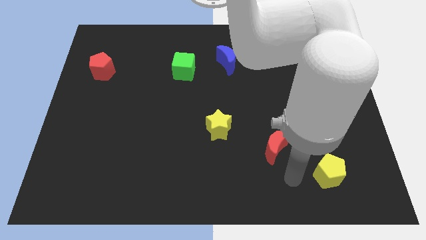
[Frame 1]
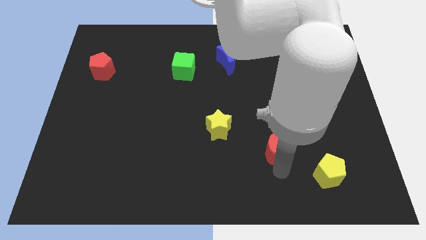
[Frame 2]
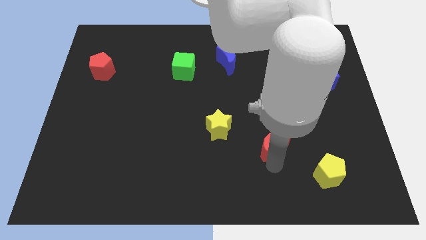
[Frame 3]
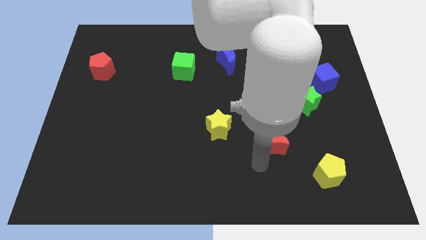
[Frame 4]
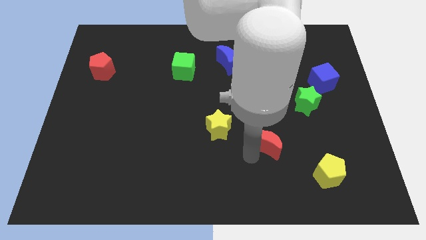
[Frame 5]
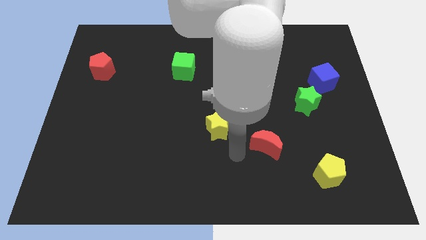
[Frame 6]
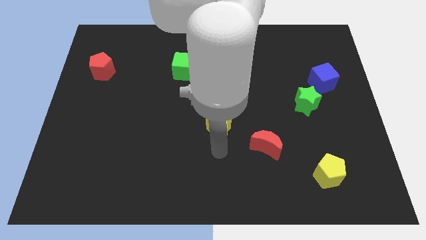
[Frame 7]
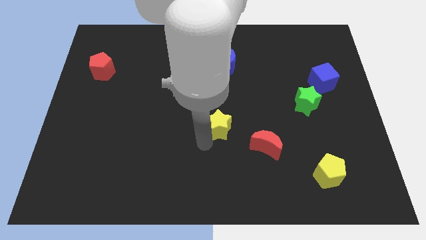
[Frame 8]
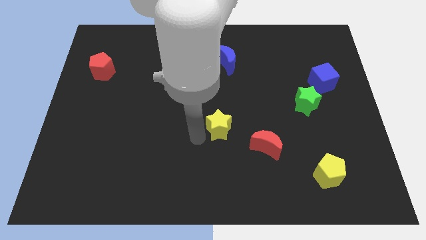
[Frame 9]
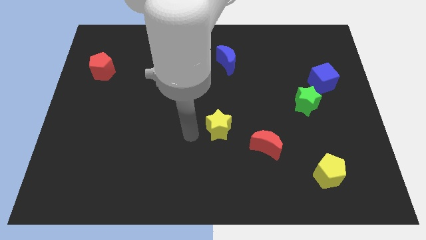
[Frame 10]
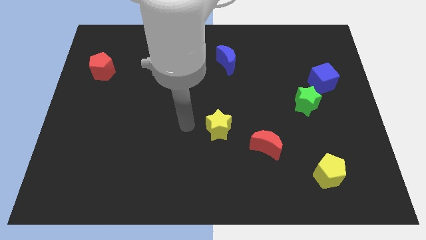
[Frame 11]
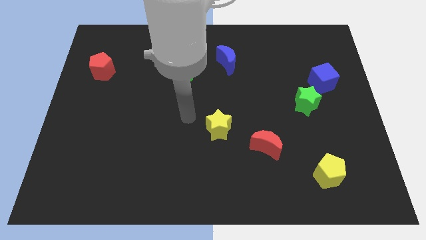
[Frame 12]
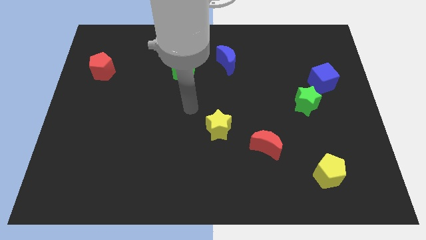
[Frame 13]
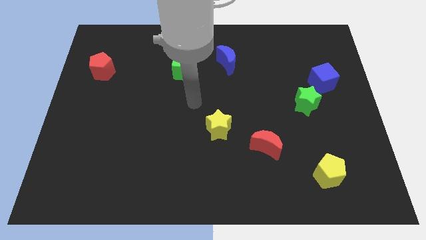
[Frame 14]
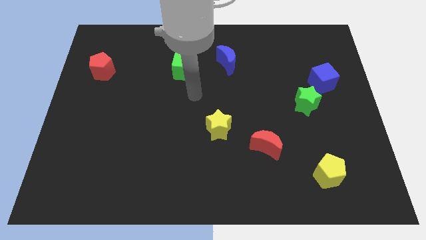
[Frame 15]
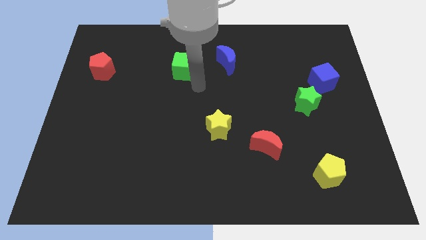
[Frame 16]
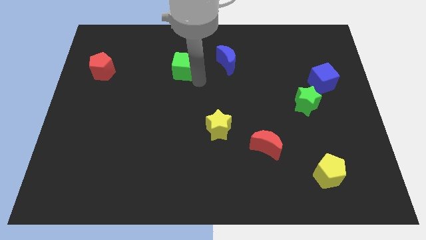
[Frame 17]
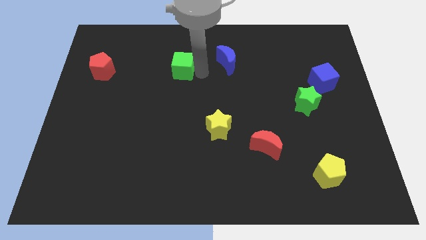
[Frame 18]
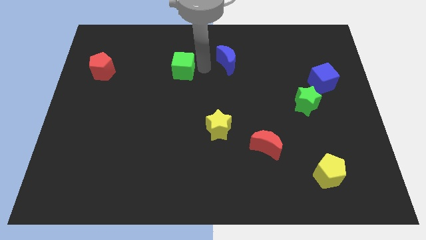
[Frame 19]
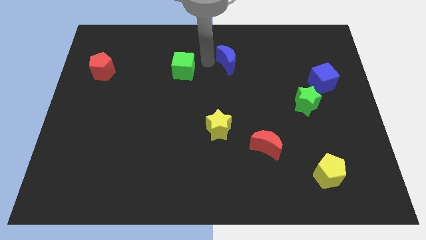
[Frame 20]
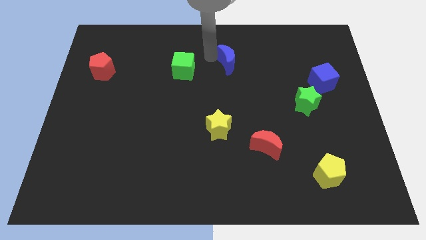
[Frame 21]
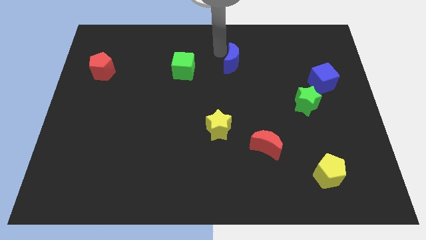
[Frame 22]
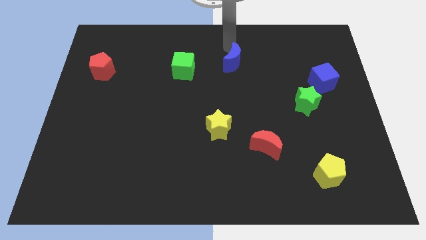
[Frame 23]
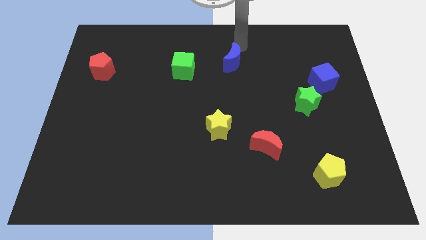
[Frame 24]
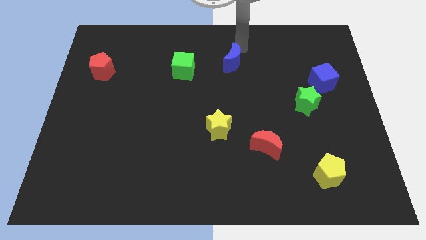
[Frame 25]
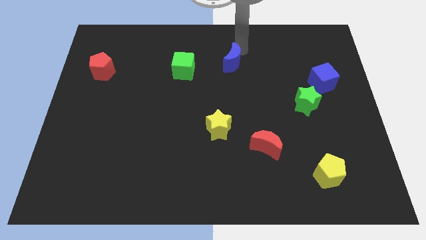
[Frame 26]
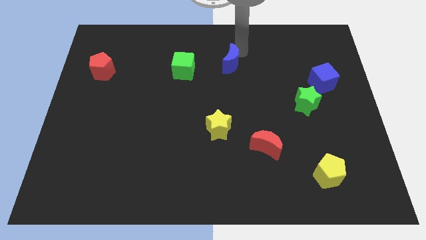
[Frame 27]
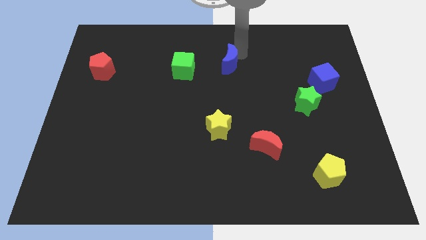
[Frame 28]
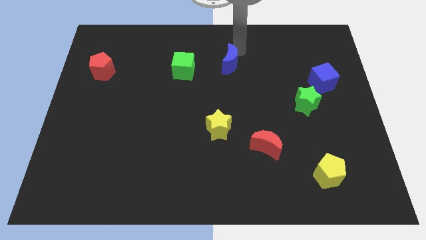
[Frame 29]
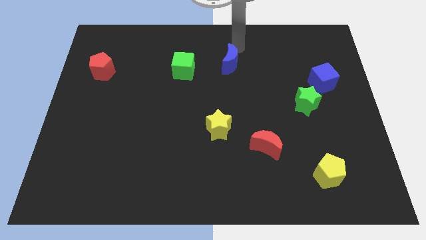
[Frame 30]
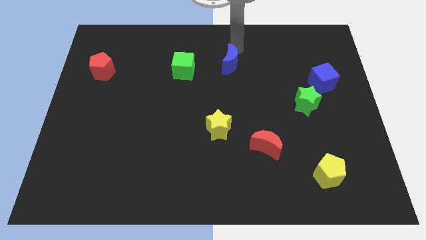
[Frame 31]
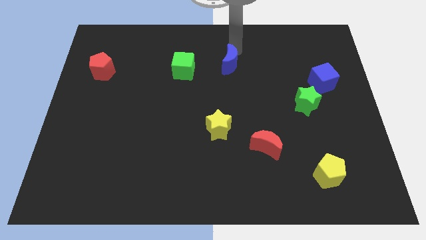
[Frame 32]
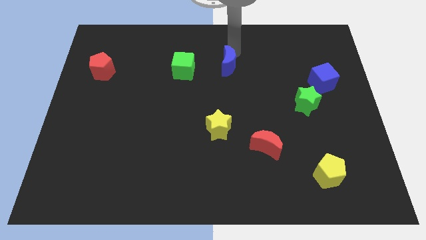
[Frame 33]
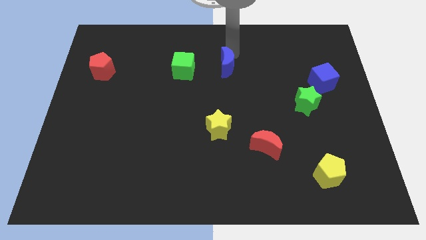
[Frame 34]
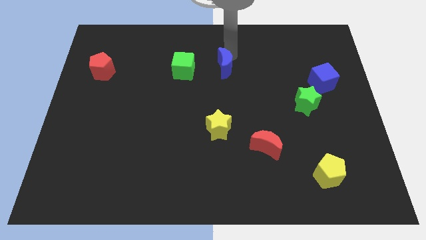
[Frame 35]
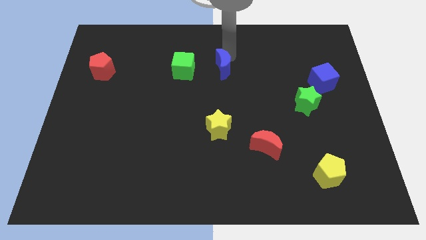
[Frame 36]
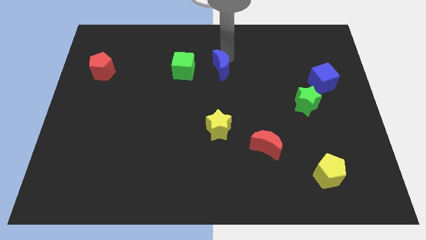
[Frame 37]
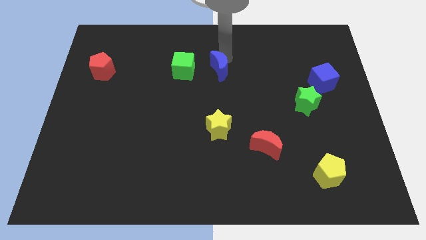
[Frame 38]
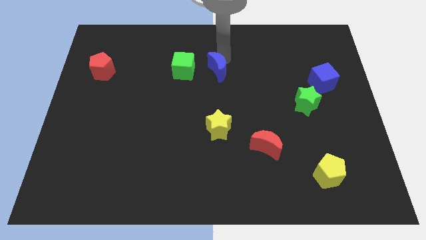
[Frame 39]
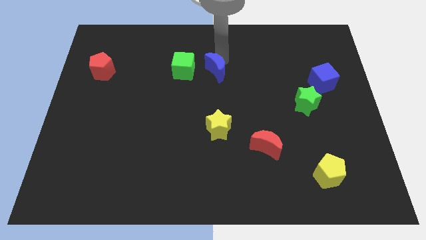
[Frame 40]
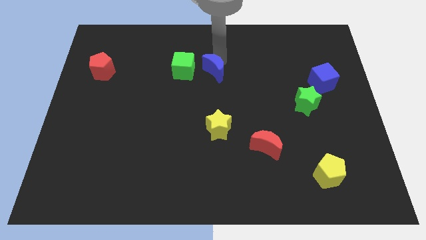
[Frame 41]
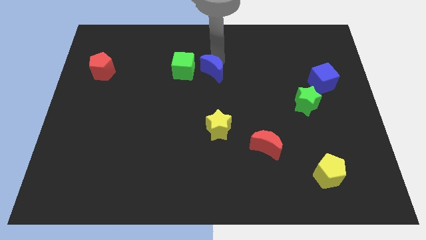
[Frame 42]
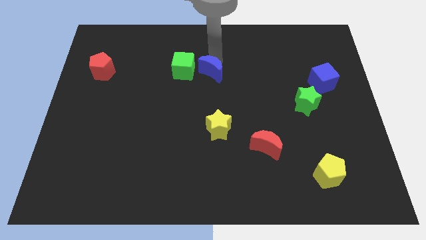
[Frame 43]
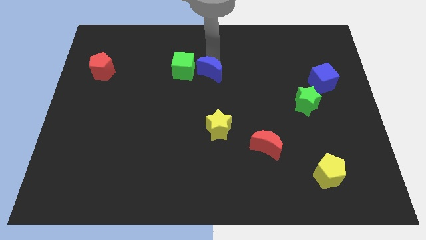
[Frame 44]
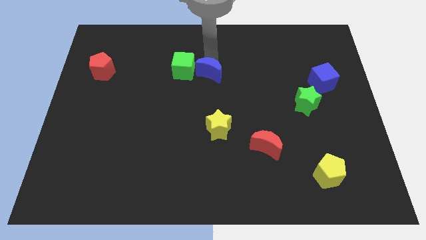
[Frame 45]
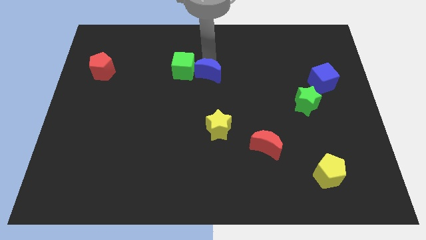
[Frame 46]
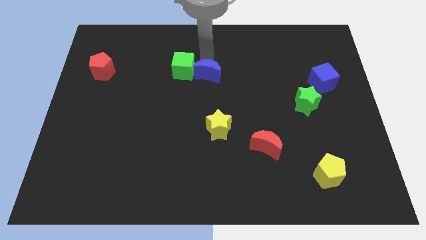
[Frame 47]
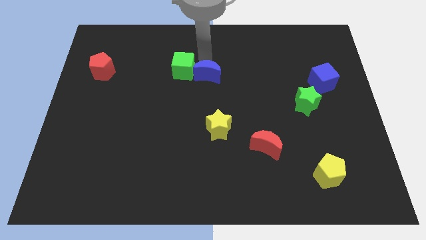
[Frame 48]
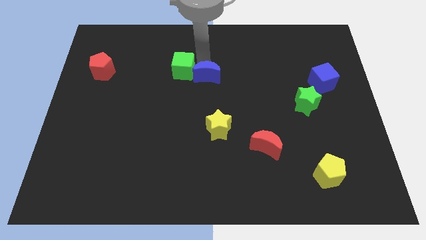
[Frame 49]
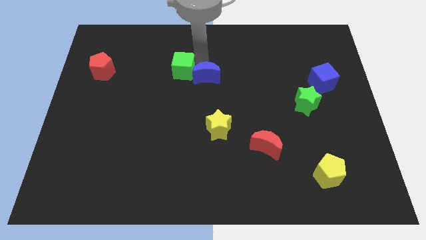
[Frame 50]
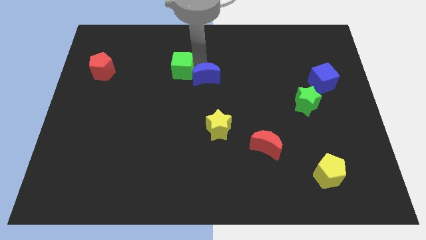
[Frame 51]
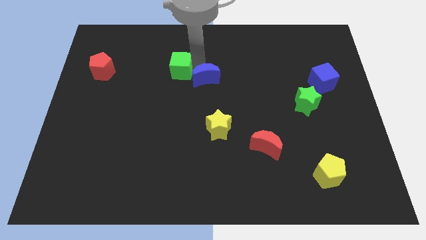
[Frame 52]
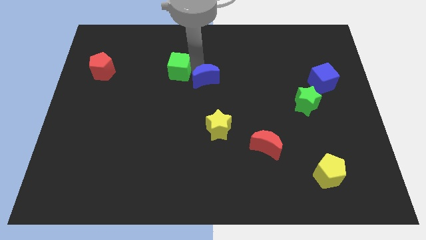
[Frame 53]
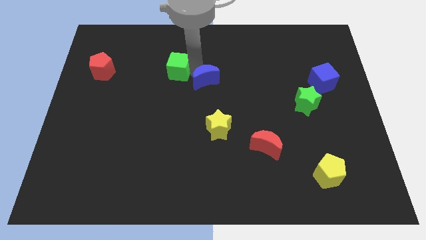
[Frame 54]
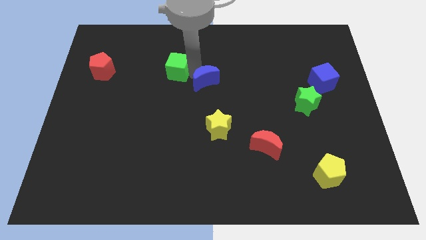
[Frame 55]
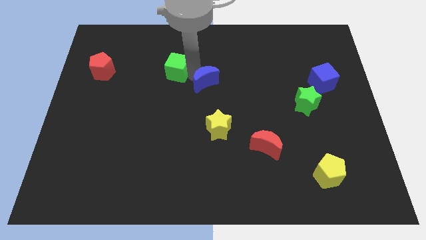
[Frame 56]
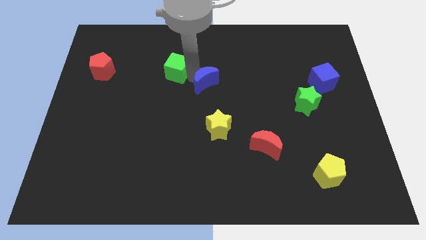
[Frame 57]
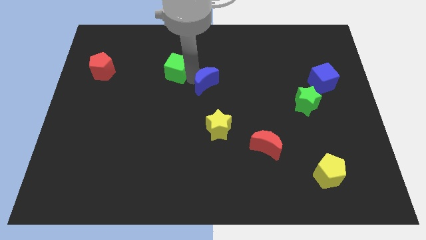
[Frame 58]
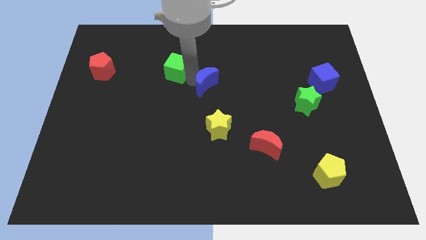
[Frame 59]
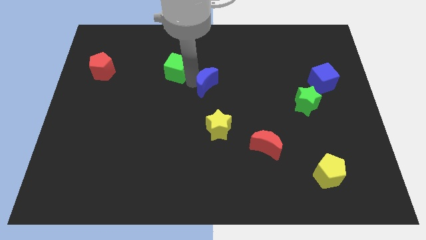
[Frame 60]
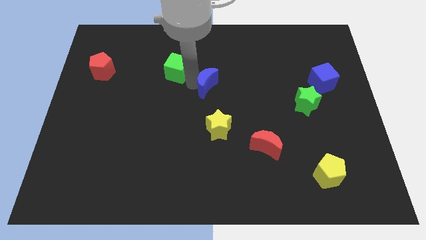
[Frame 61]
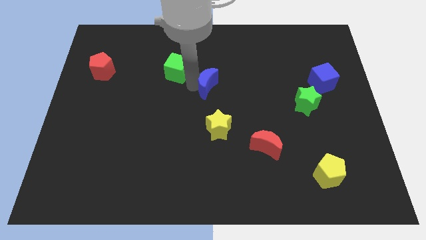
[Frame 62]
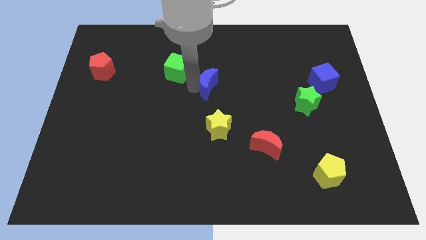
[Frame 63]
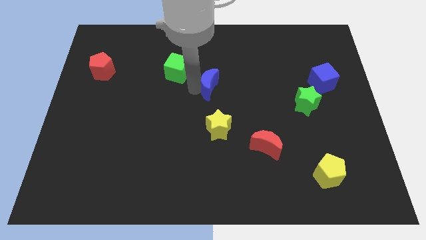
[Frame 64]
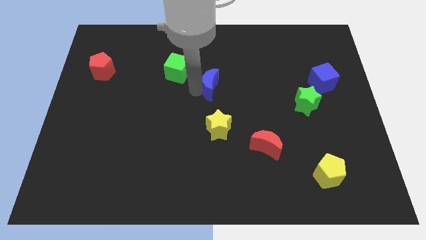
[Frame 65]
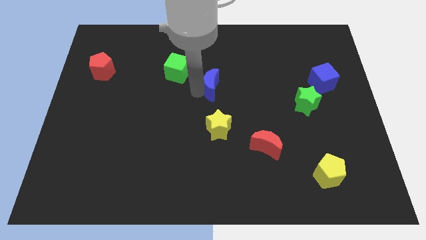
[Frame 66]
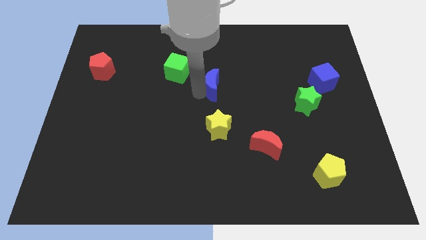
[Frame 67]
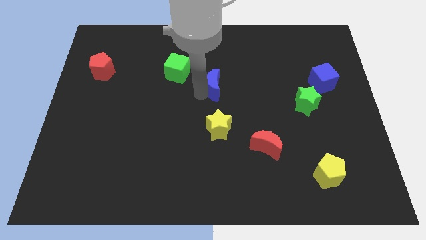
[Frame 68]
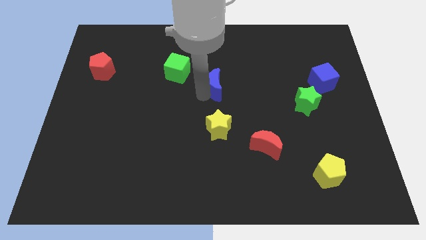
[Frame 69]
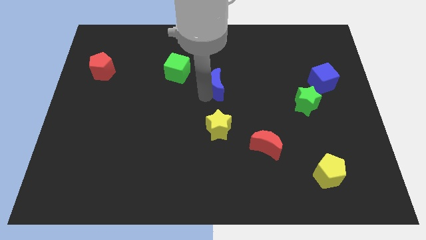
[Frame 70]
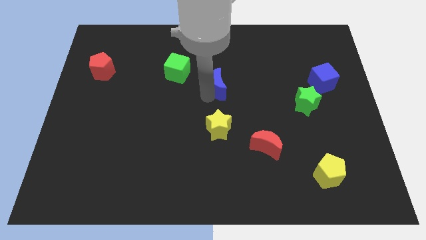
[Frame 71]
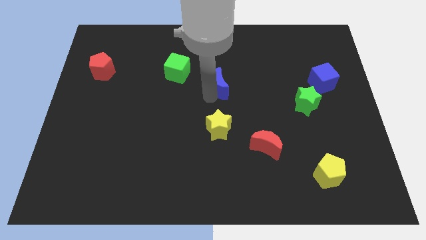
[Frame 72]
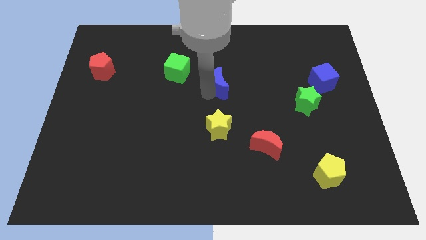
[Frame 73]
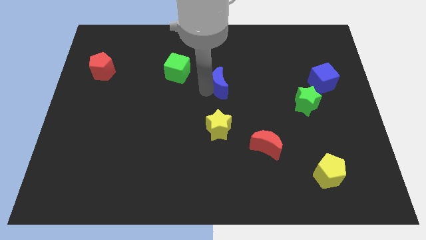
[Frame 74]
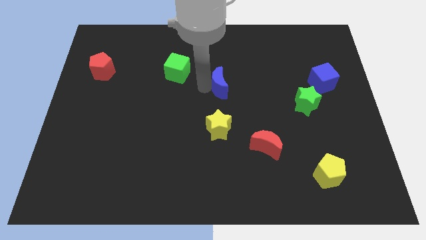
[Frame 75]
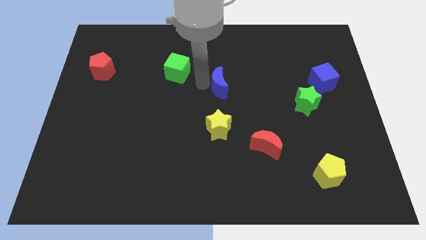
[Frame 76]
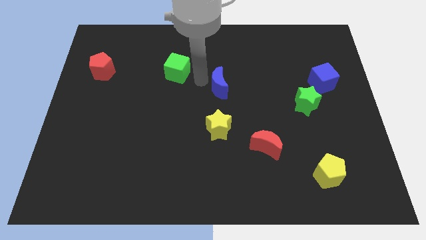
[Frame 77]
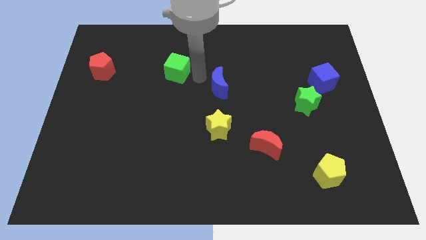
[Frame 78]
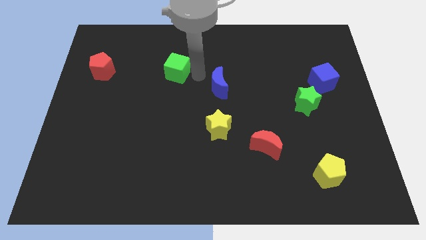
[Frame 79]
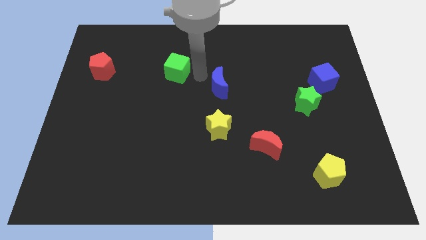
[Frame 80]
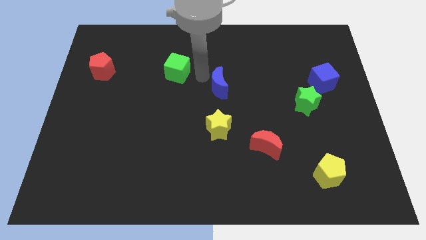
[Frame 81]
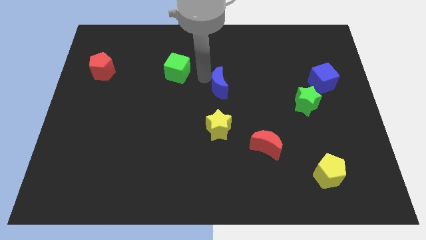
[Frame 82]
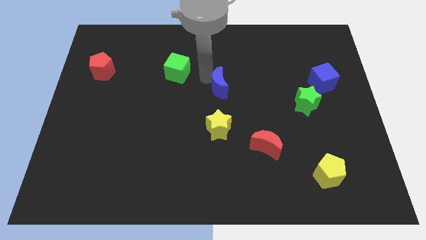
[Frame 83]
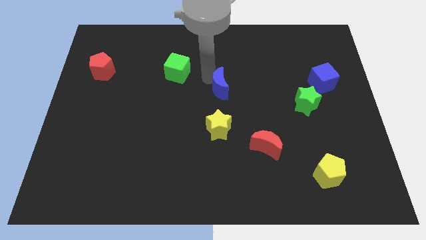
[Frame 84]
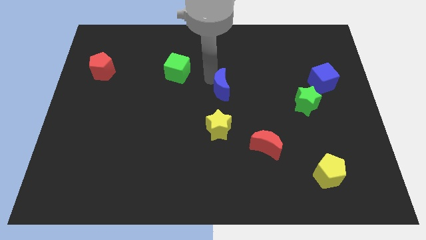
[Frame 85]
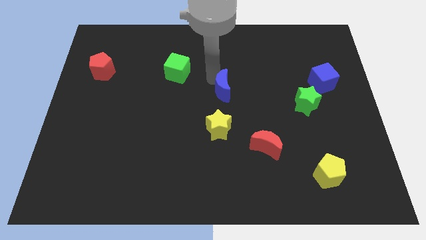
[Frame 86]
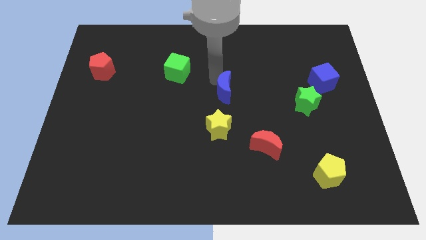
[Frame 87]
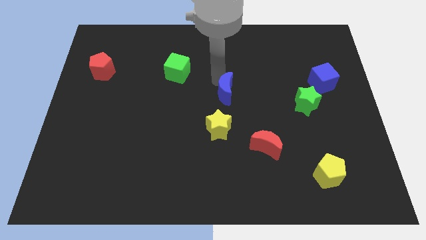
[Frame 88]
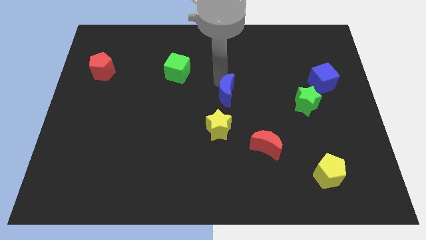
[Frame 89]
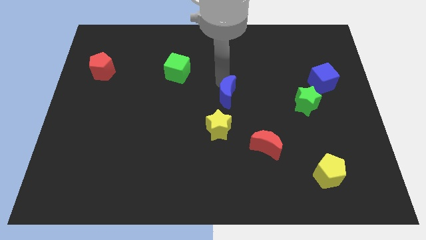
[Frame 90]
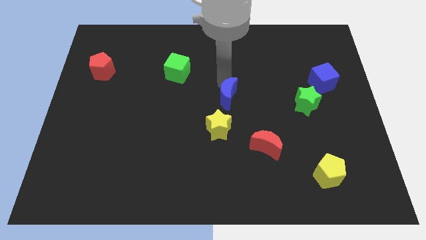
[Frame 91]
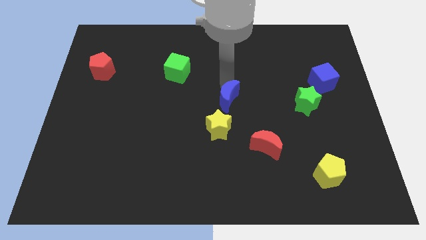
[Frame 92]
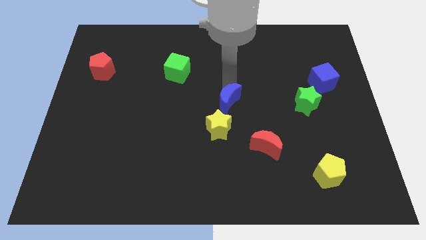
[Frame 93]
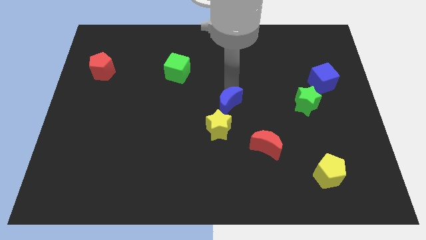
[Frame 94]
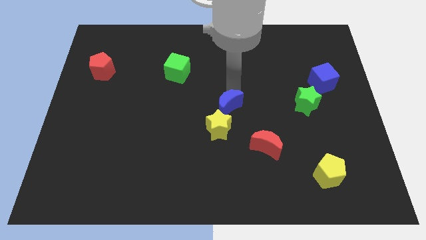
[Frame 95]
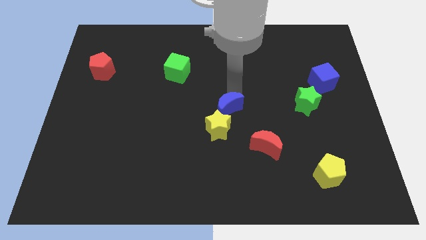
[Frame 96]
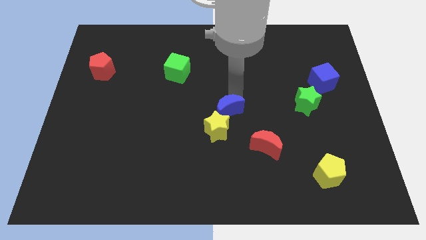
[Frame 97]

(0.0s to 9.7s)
push the blue moon close to the yellow star
